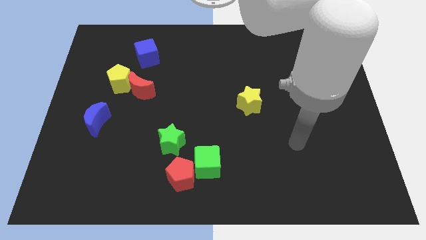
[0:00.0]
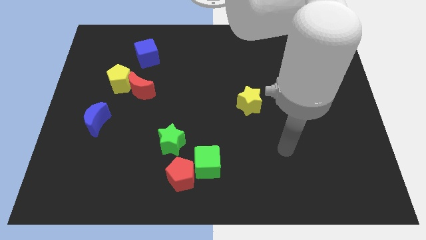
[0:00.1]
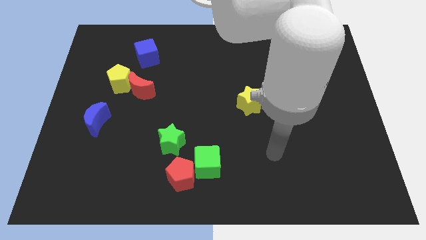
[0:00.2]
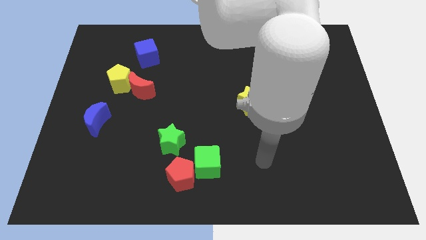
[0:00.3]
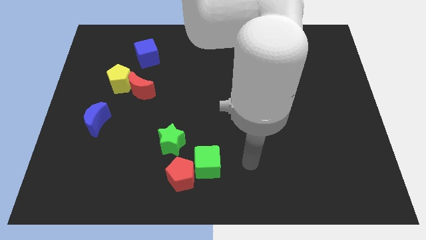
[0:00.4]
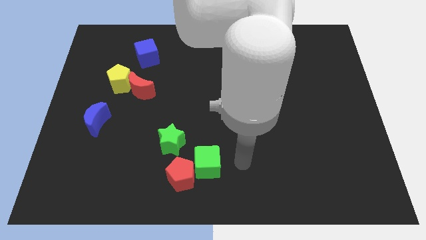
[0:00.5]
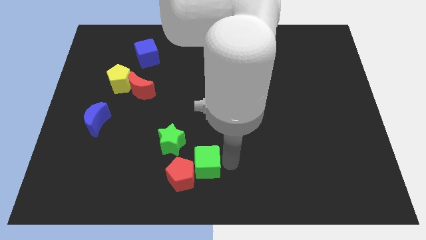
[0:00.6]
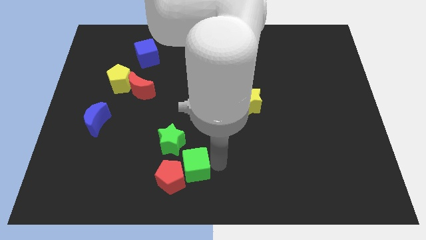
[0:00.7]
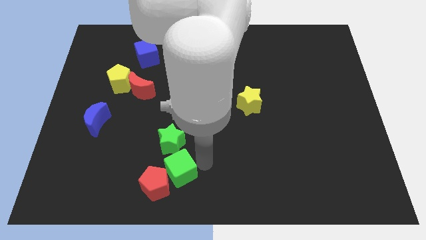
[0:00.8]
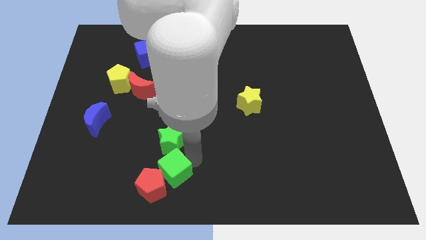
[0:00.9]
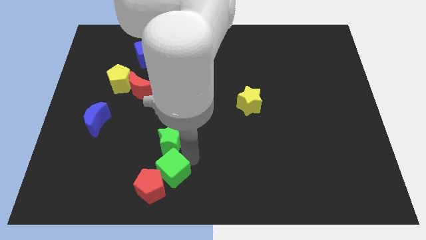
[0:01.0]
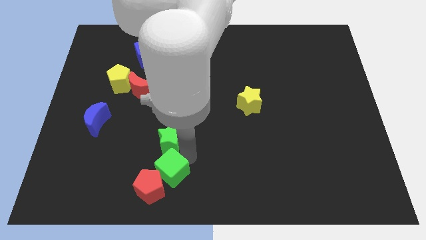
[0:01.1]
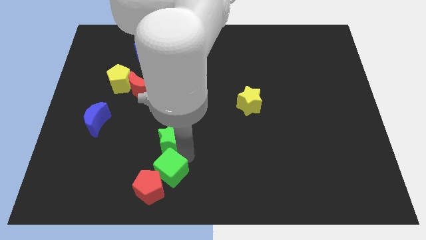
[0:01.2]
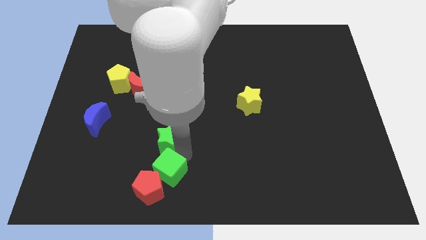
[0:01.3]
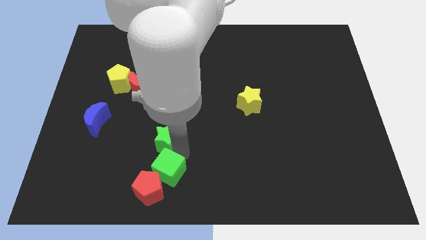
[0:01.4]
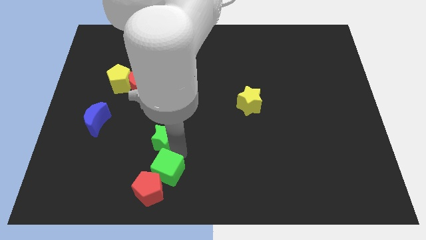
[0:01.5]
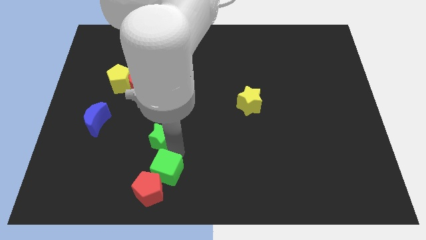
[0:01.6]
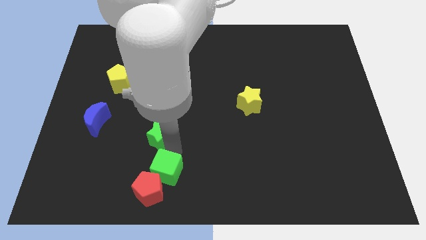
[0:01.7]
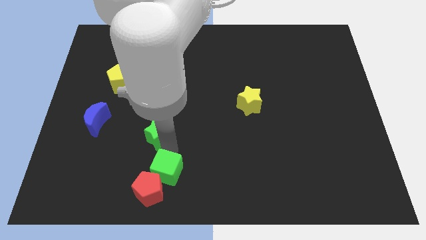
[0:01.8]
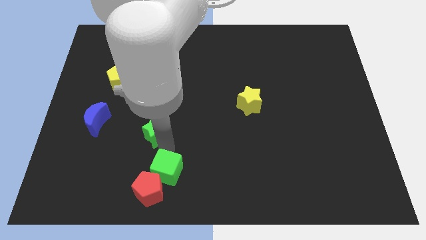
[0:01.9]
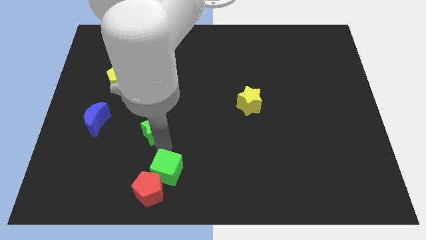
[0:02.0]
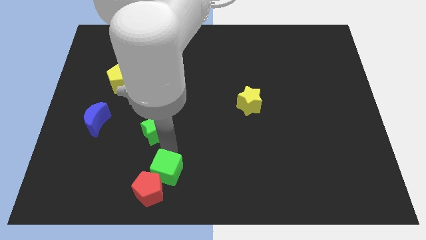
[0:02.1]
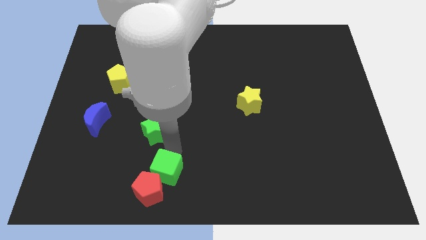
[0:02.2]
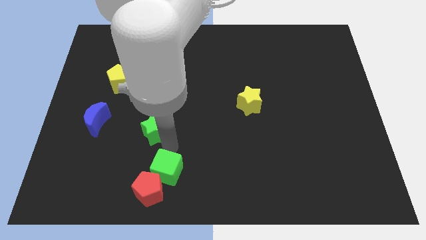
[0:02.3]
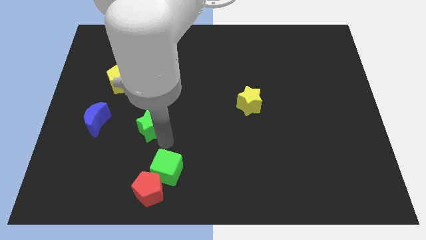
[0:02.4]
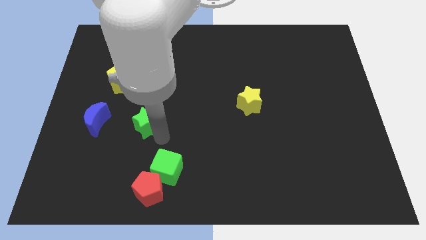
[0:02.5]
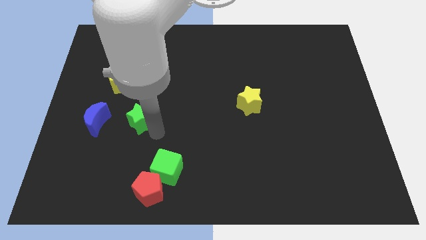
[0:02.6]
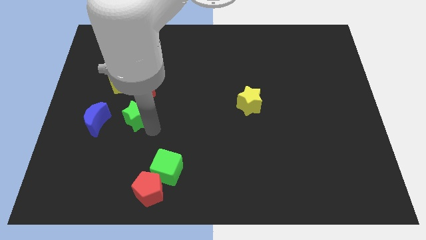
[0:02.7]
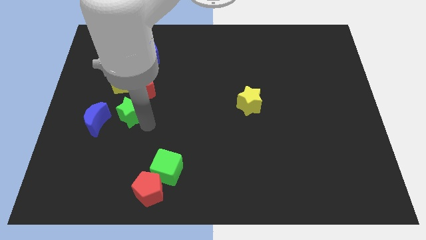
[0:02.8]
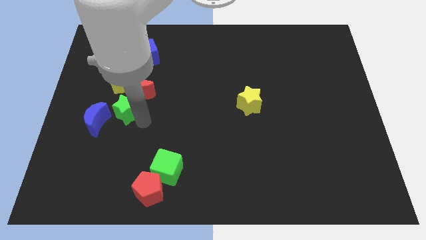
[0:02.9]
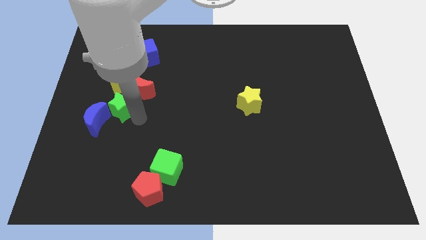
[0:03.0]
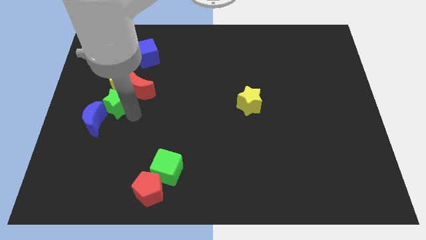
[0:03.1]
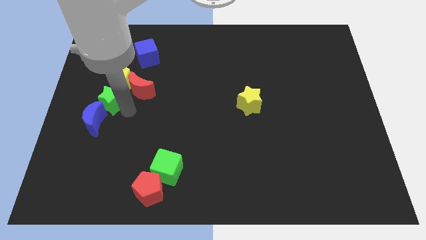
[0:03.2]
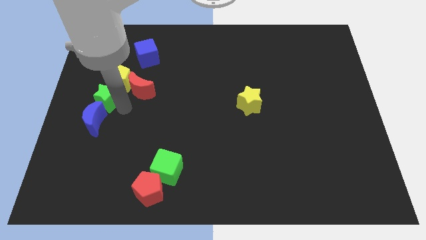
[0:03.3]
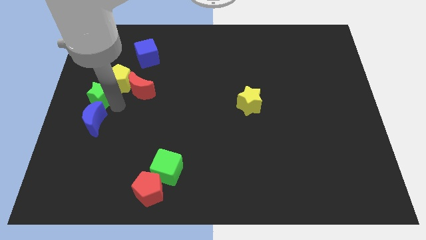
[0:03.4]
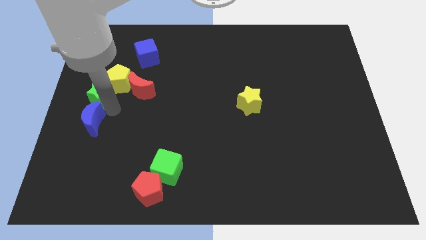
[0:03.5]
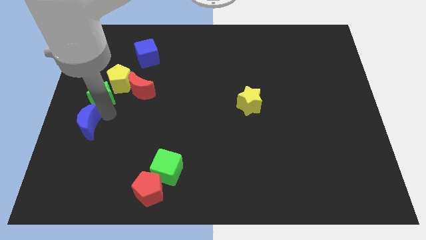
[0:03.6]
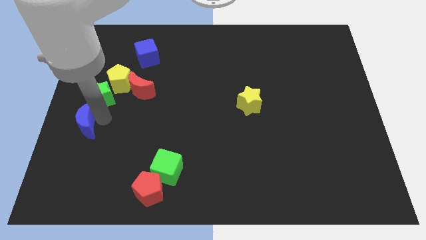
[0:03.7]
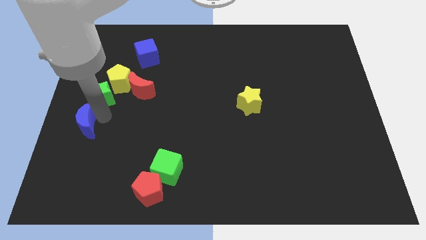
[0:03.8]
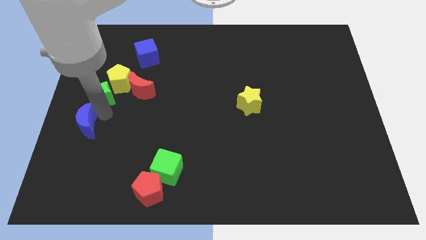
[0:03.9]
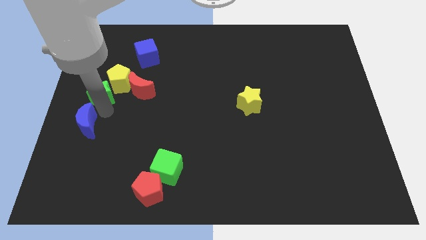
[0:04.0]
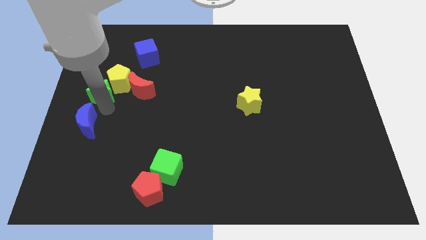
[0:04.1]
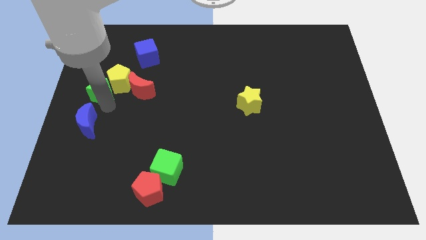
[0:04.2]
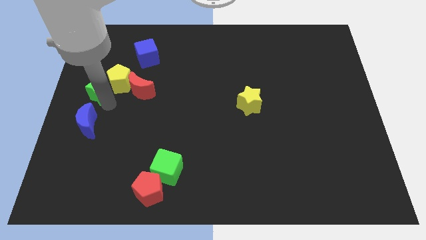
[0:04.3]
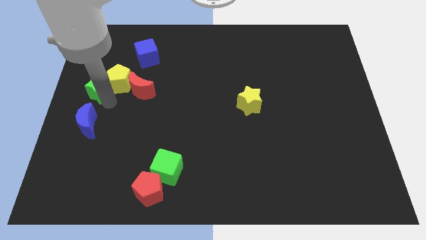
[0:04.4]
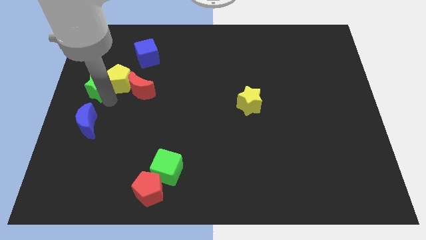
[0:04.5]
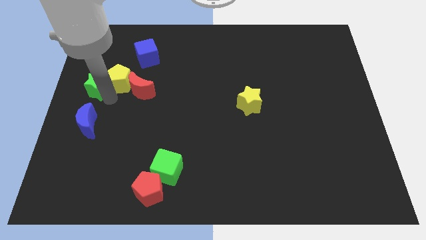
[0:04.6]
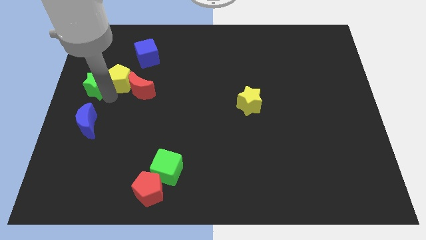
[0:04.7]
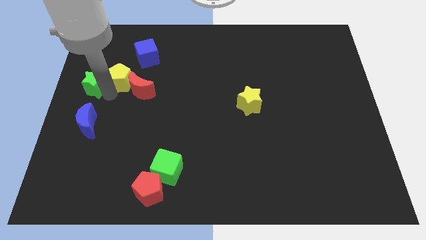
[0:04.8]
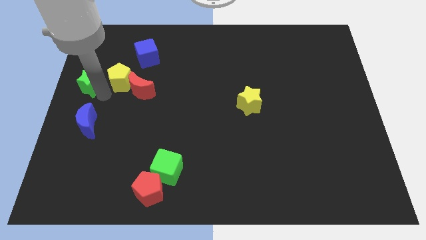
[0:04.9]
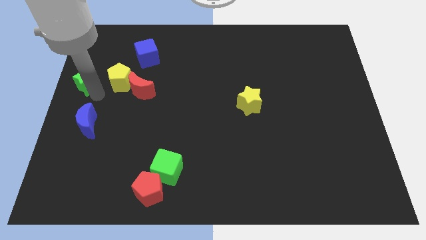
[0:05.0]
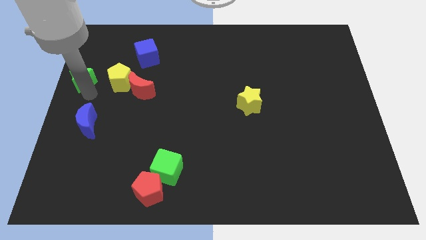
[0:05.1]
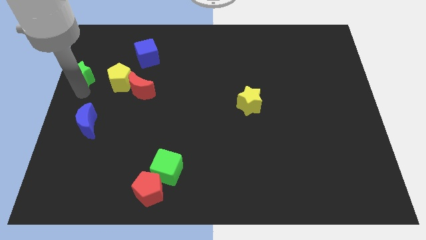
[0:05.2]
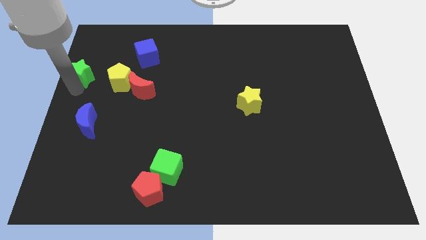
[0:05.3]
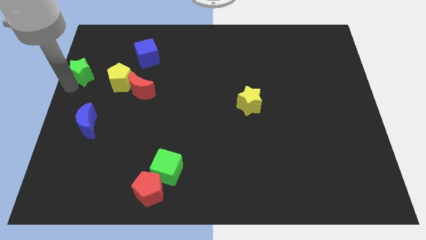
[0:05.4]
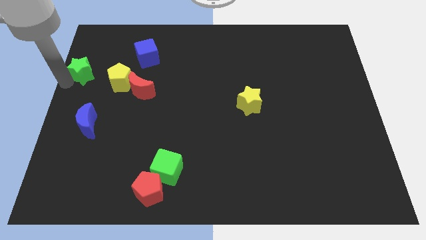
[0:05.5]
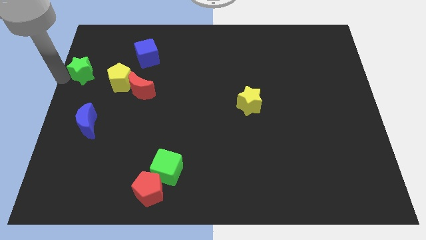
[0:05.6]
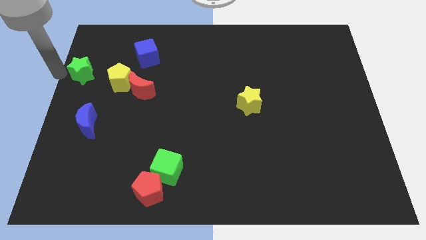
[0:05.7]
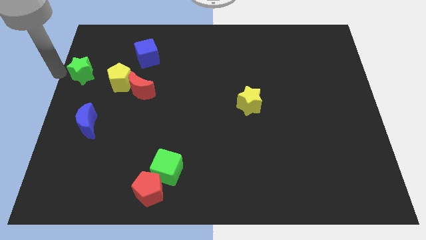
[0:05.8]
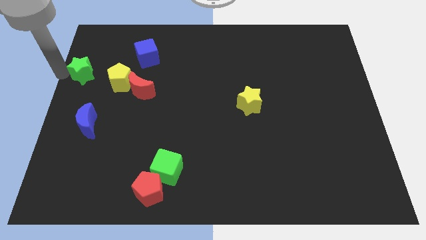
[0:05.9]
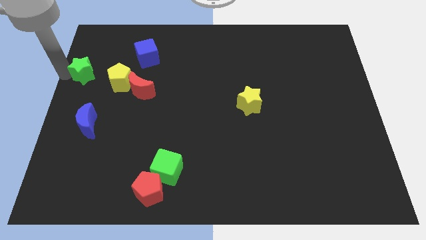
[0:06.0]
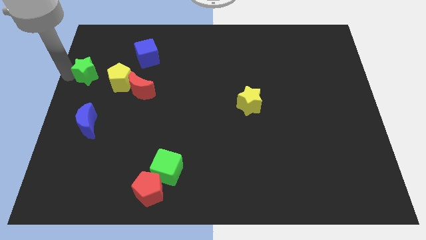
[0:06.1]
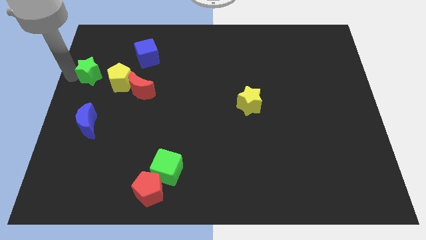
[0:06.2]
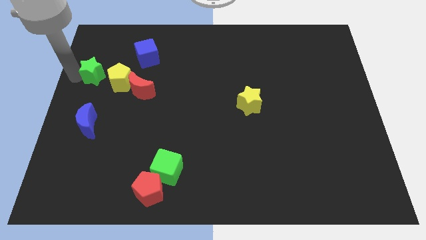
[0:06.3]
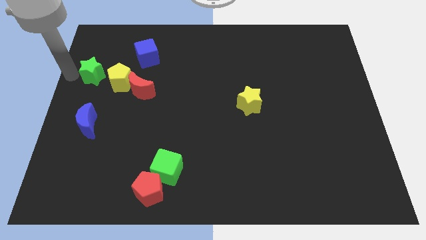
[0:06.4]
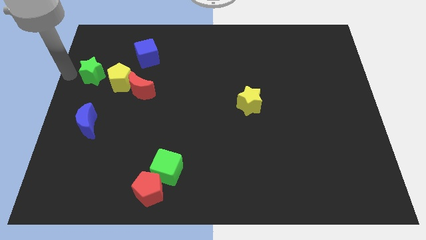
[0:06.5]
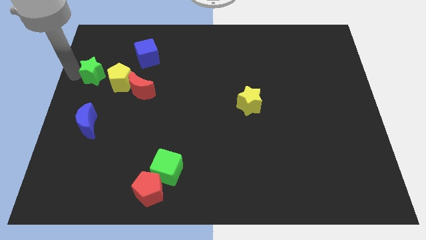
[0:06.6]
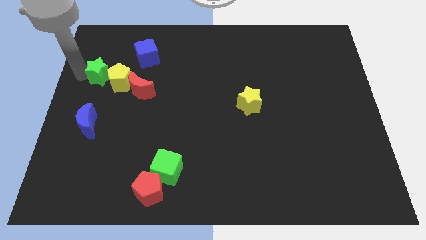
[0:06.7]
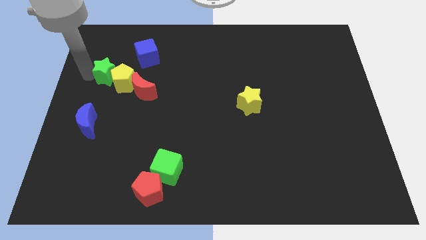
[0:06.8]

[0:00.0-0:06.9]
move the green star diagonally up and to the left of the red moon

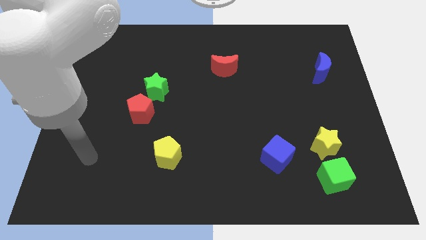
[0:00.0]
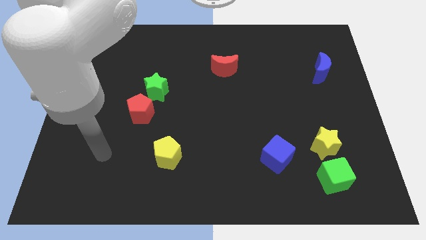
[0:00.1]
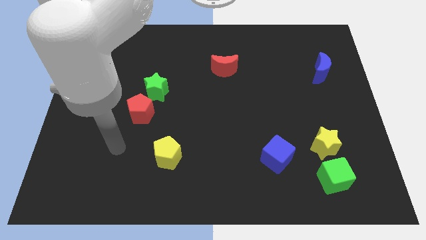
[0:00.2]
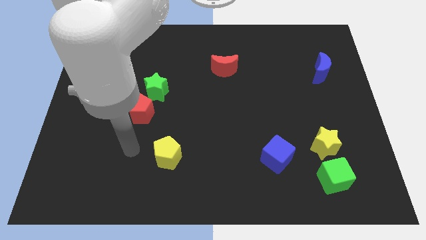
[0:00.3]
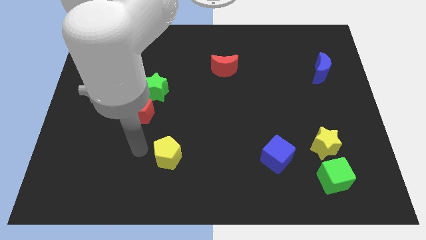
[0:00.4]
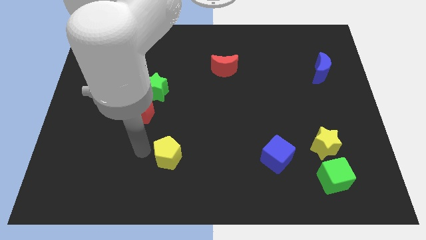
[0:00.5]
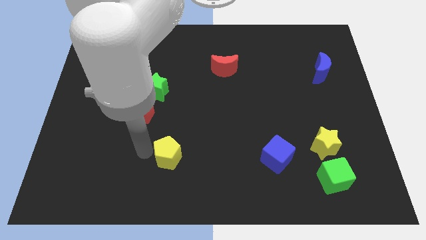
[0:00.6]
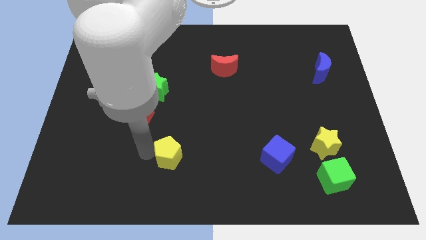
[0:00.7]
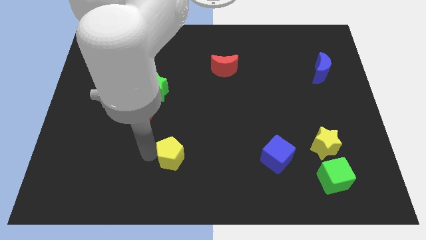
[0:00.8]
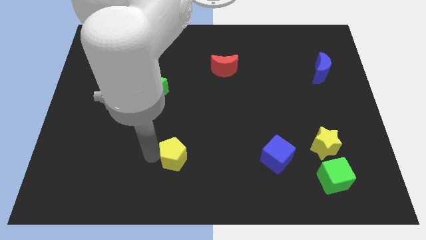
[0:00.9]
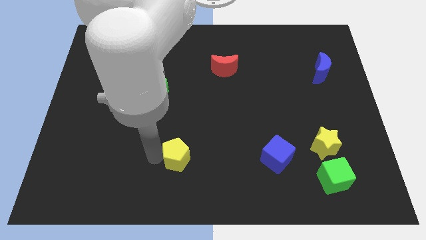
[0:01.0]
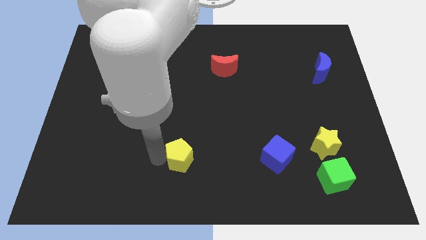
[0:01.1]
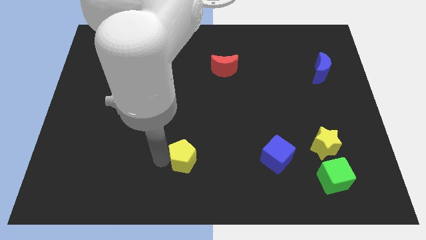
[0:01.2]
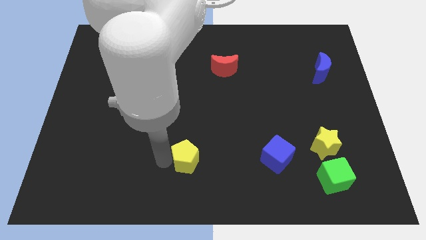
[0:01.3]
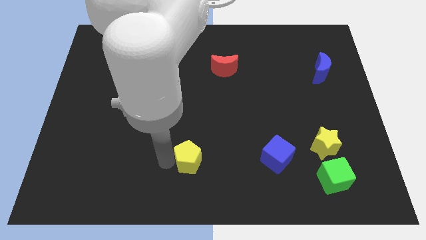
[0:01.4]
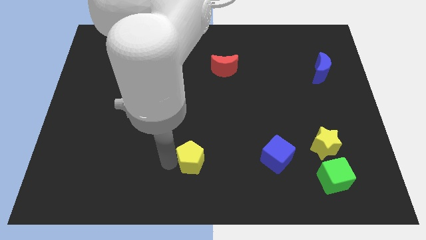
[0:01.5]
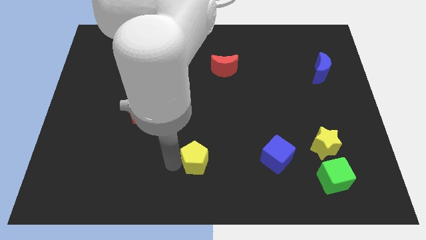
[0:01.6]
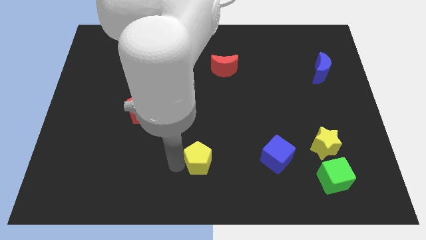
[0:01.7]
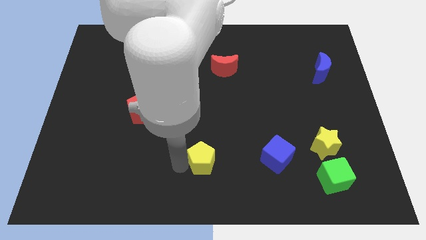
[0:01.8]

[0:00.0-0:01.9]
slide the yellow pentagon to the left of the blue cube
